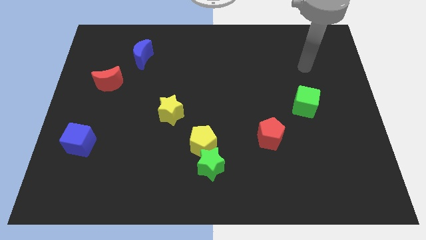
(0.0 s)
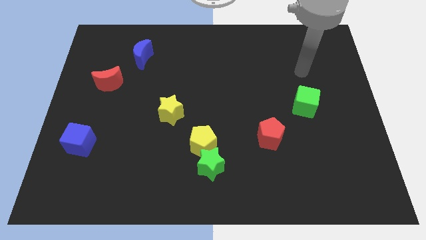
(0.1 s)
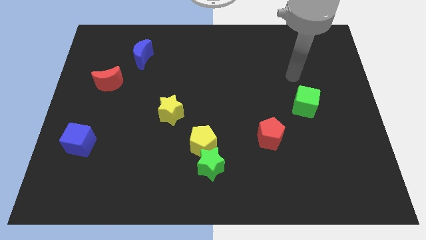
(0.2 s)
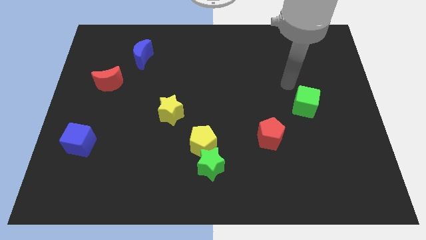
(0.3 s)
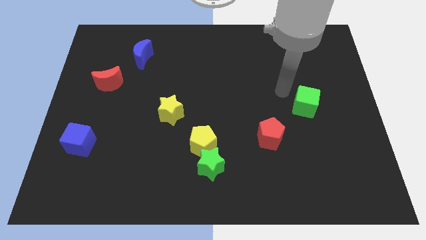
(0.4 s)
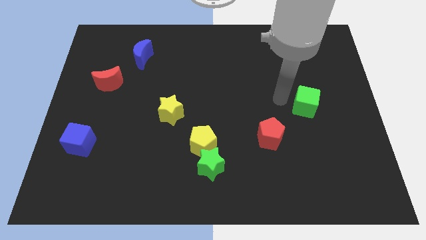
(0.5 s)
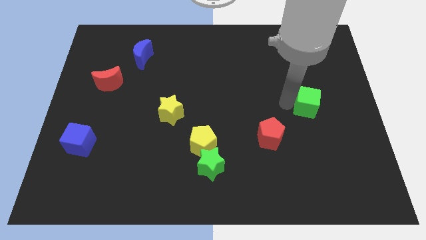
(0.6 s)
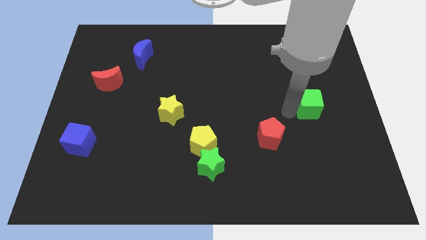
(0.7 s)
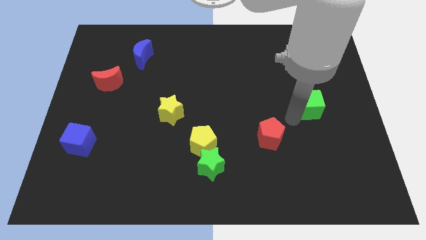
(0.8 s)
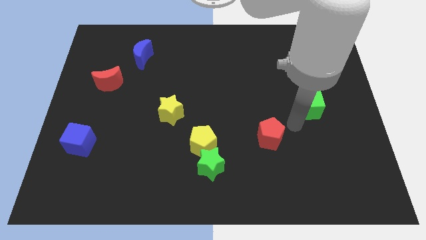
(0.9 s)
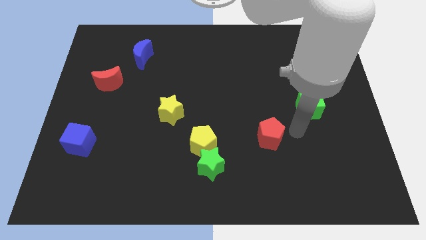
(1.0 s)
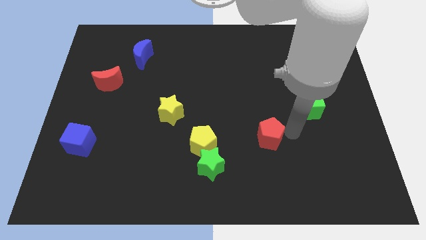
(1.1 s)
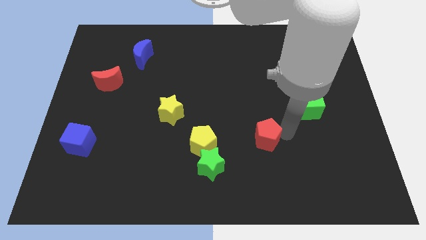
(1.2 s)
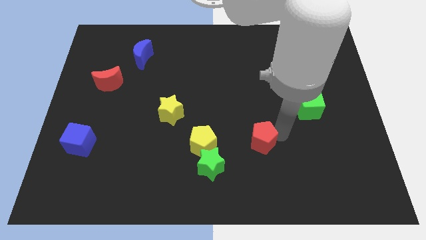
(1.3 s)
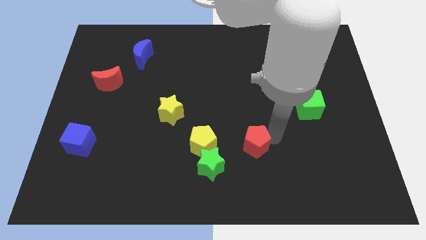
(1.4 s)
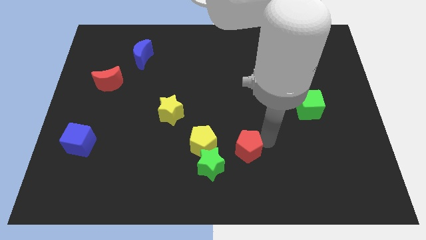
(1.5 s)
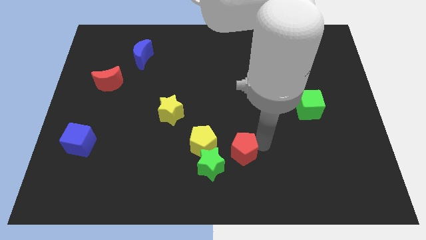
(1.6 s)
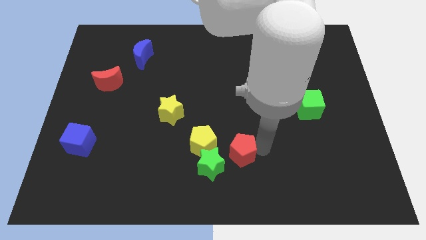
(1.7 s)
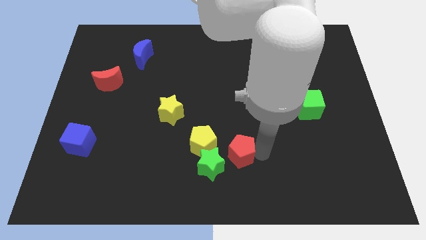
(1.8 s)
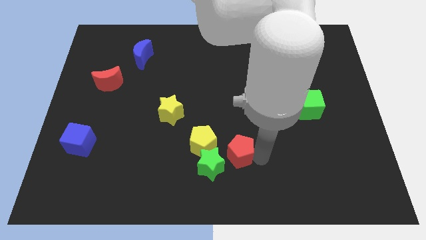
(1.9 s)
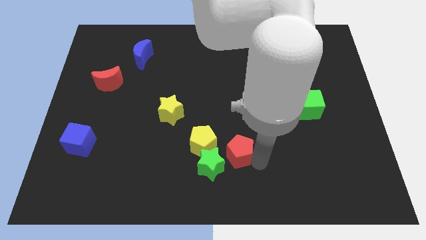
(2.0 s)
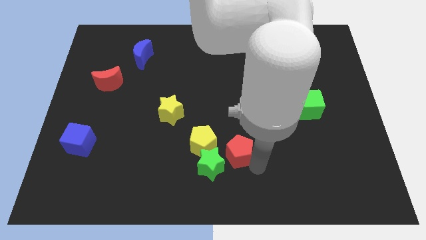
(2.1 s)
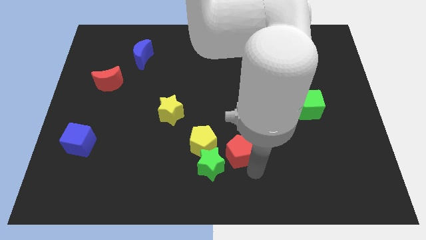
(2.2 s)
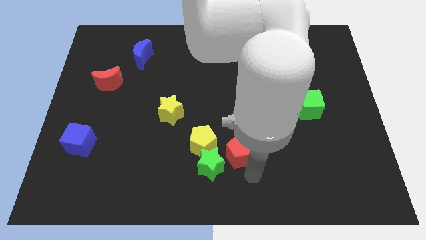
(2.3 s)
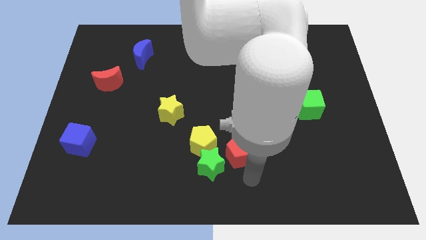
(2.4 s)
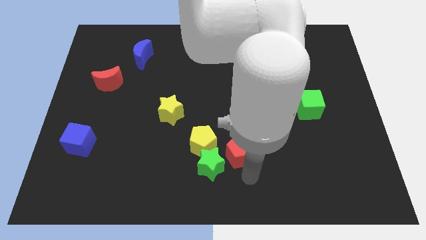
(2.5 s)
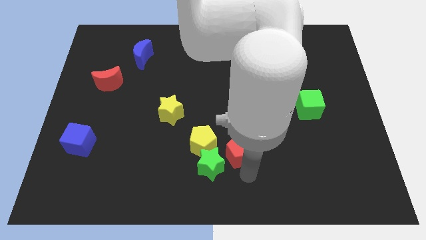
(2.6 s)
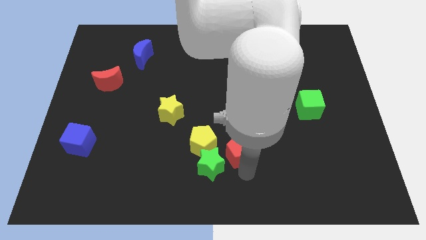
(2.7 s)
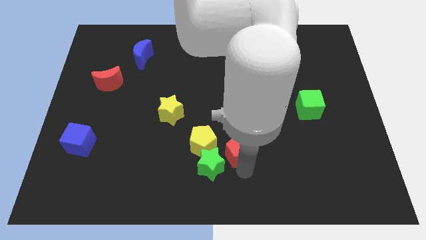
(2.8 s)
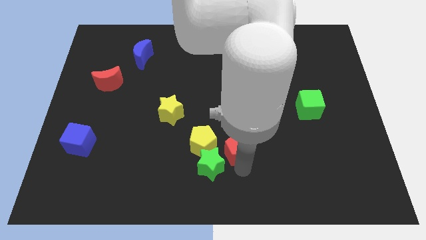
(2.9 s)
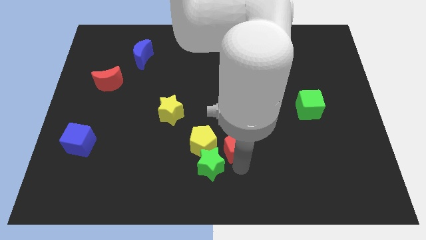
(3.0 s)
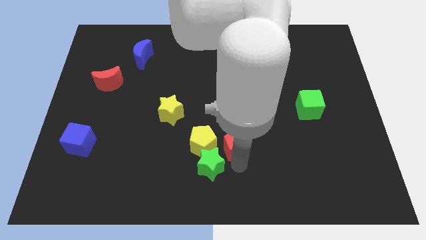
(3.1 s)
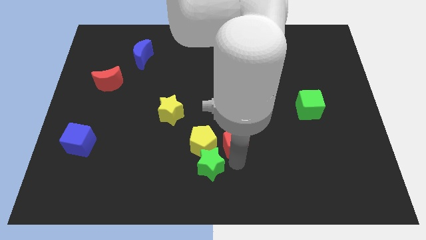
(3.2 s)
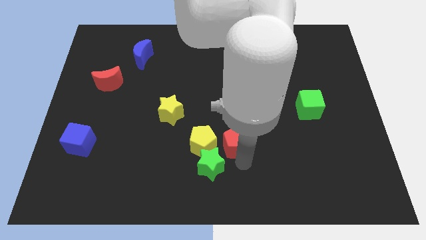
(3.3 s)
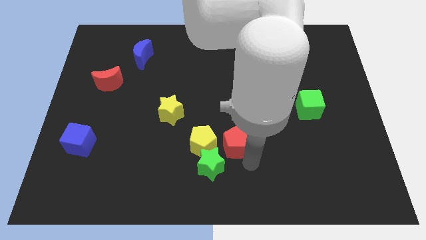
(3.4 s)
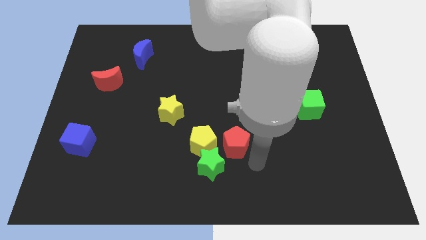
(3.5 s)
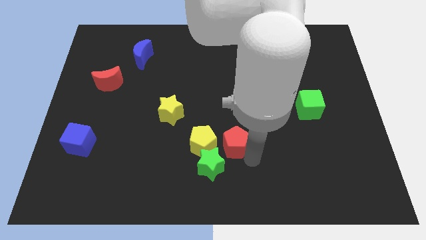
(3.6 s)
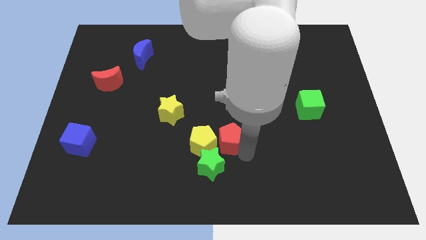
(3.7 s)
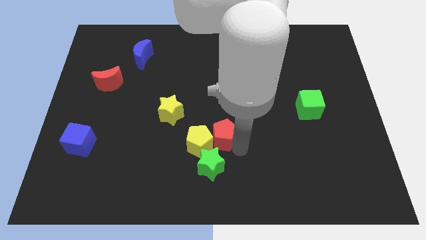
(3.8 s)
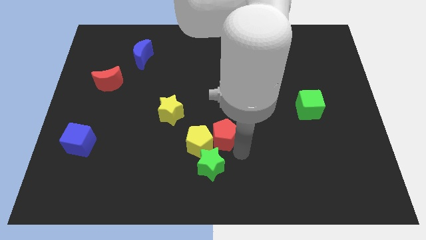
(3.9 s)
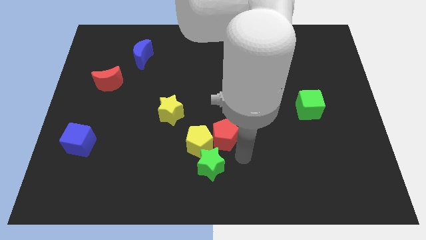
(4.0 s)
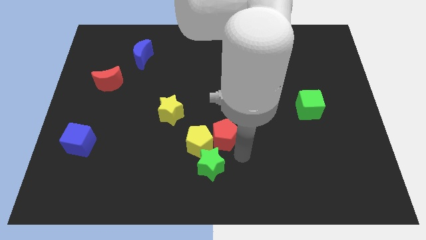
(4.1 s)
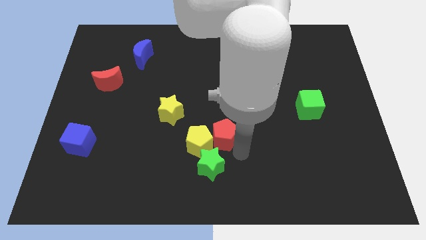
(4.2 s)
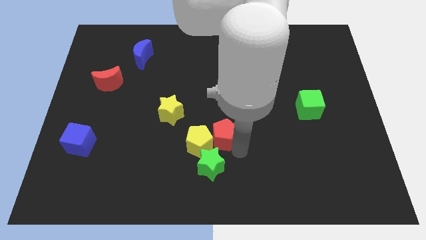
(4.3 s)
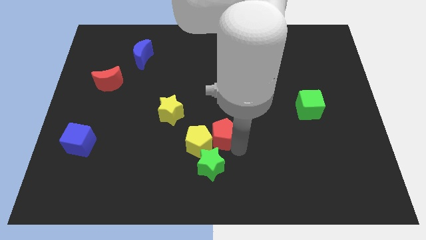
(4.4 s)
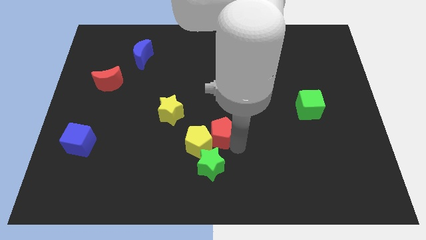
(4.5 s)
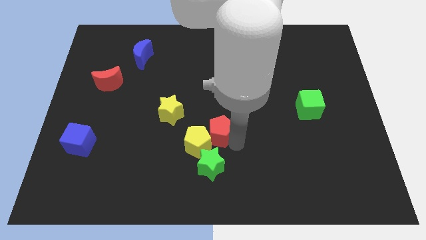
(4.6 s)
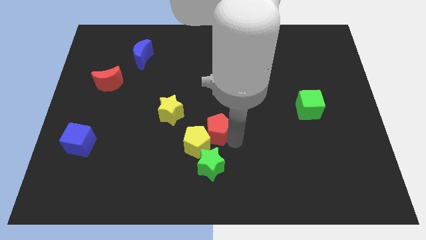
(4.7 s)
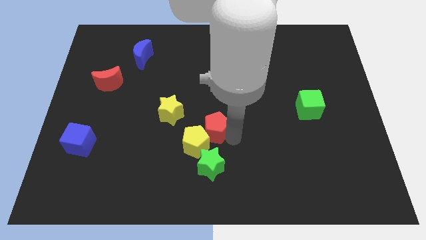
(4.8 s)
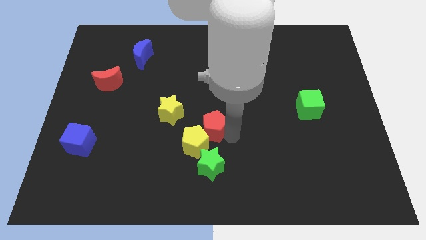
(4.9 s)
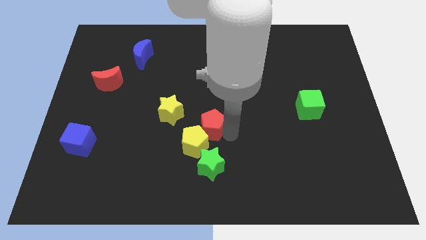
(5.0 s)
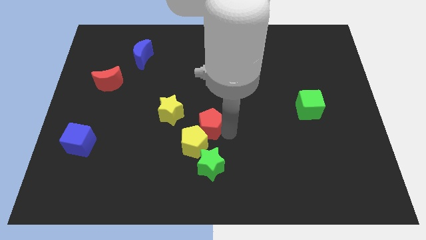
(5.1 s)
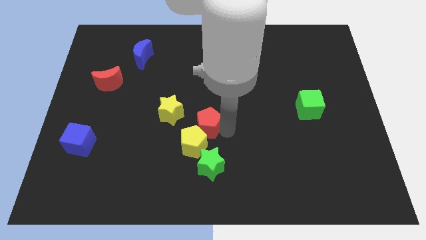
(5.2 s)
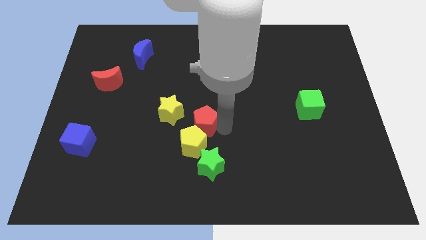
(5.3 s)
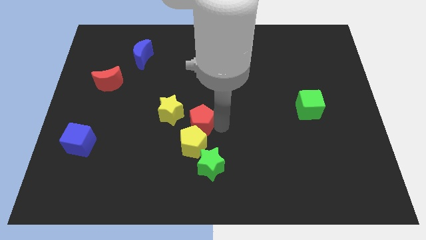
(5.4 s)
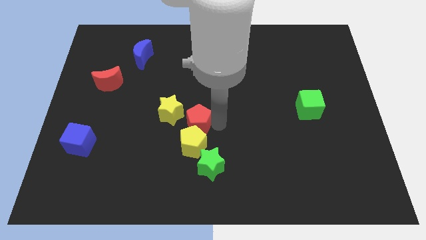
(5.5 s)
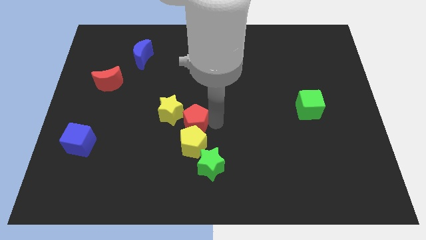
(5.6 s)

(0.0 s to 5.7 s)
move the red pentagon next to the yellow star

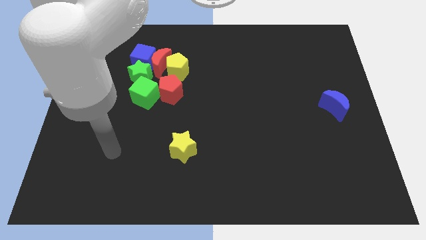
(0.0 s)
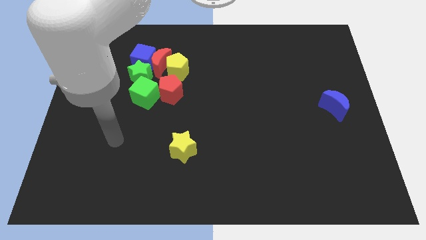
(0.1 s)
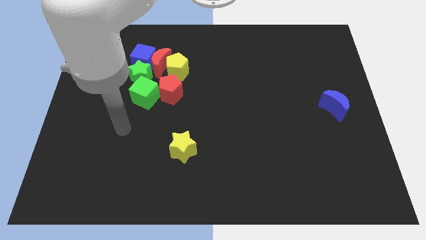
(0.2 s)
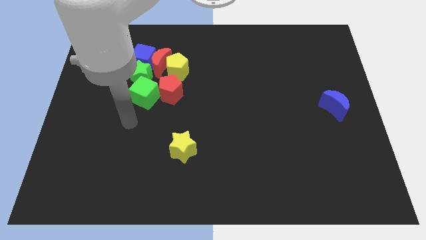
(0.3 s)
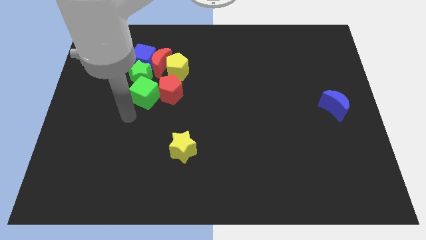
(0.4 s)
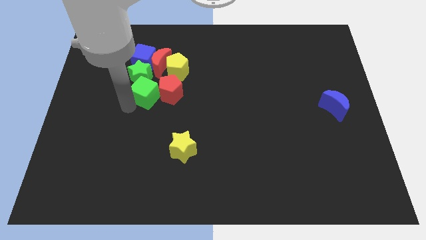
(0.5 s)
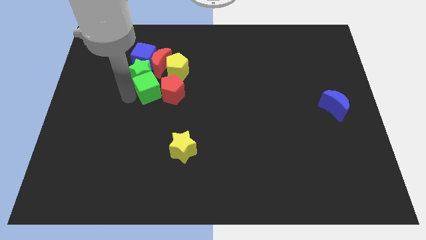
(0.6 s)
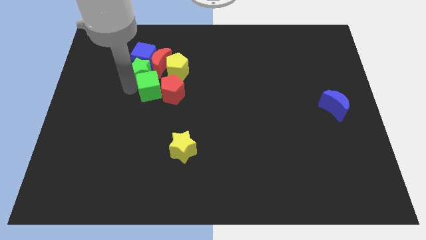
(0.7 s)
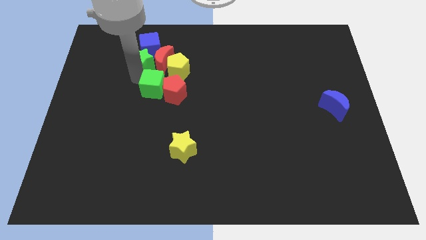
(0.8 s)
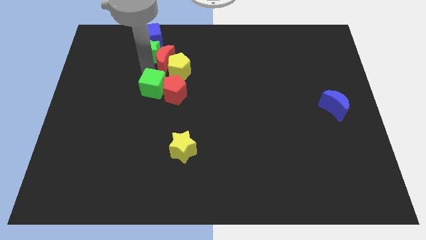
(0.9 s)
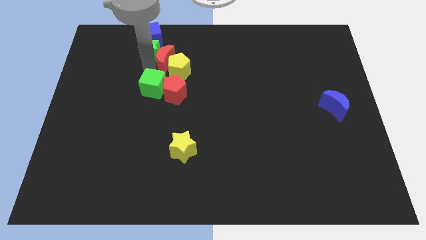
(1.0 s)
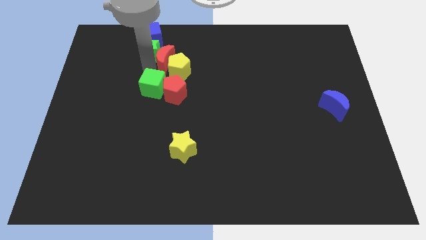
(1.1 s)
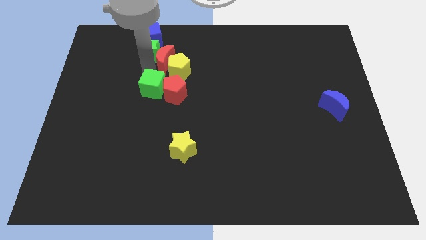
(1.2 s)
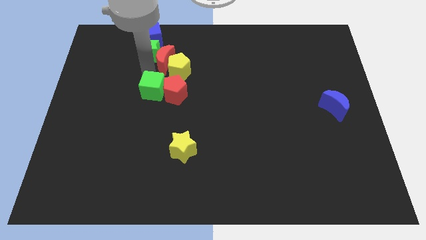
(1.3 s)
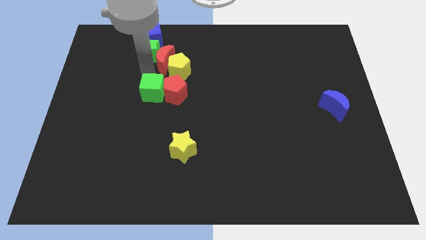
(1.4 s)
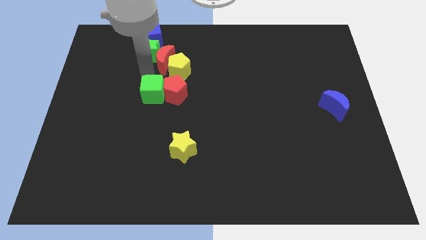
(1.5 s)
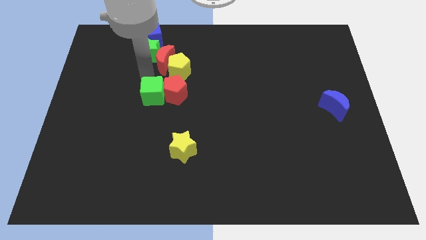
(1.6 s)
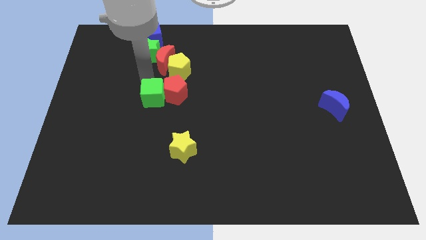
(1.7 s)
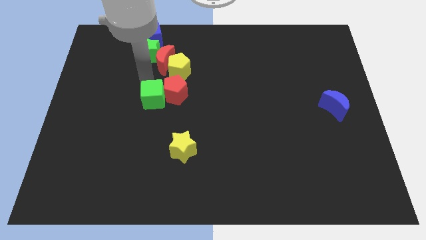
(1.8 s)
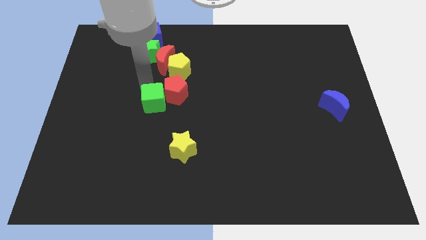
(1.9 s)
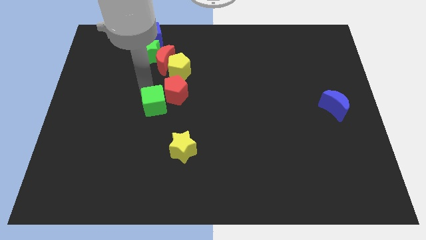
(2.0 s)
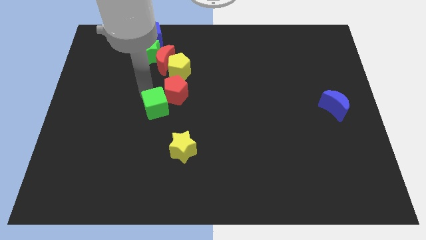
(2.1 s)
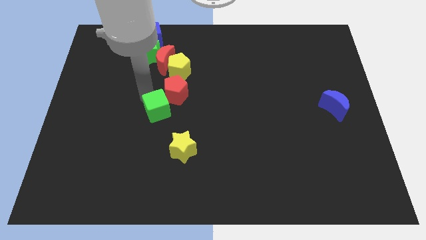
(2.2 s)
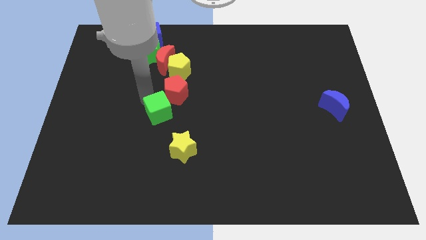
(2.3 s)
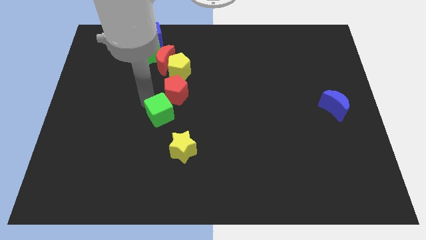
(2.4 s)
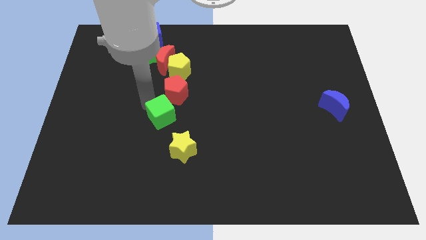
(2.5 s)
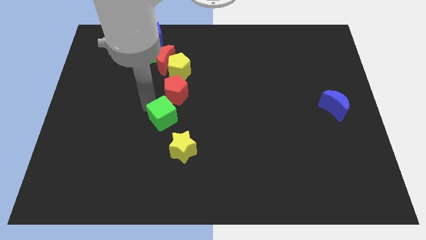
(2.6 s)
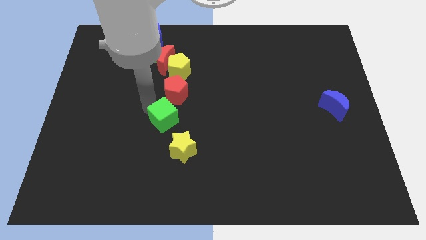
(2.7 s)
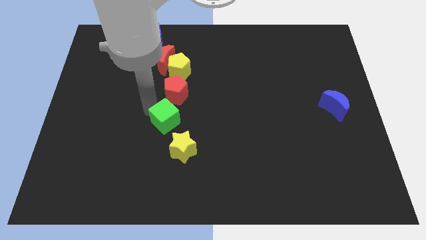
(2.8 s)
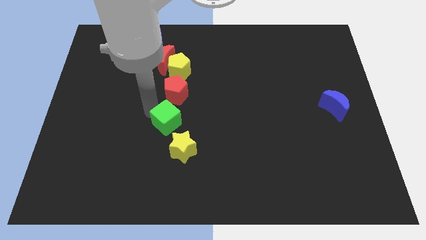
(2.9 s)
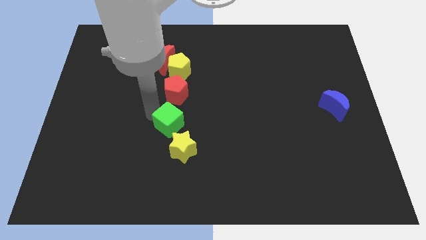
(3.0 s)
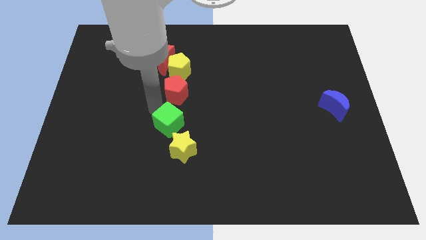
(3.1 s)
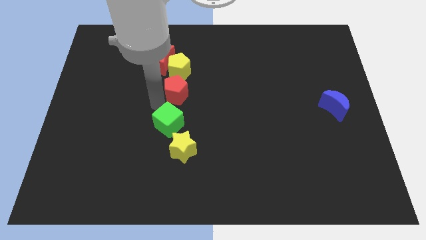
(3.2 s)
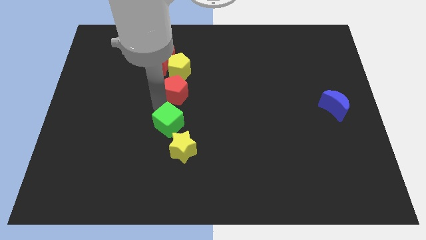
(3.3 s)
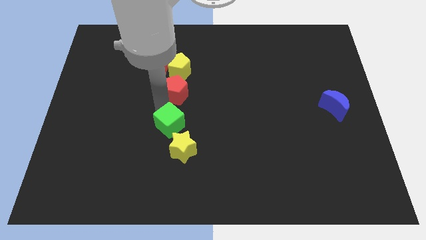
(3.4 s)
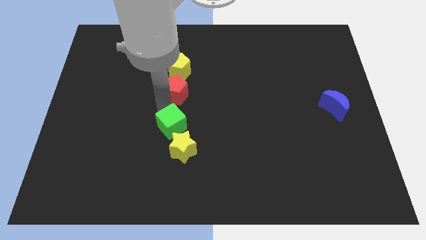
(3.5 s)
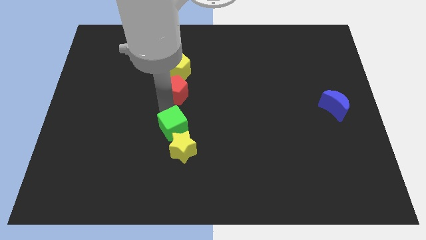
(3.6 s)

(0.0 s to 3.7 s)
put the green cube close to the yellow star
